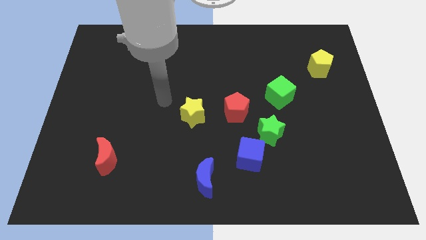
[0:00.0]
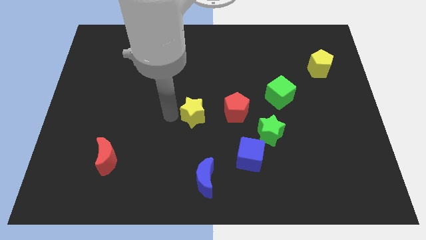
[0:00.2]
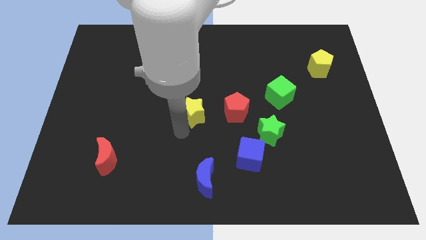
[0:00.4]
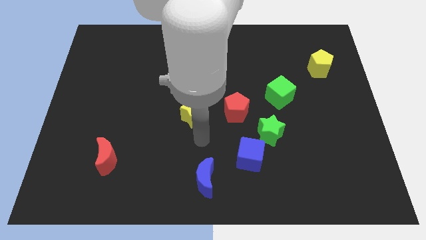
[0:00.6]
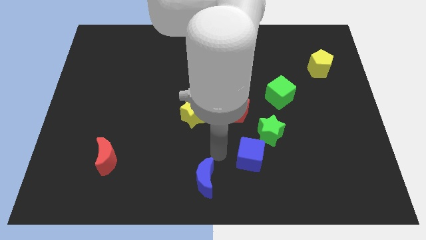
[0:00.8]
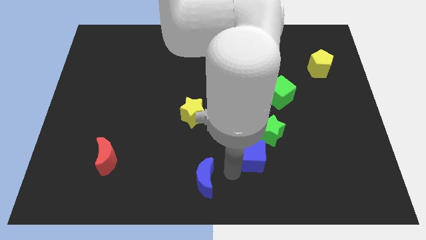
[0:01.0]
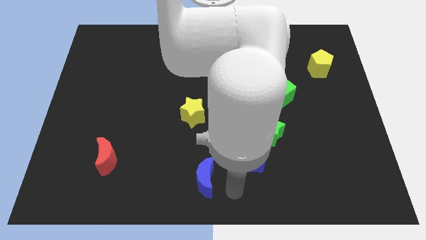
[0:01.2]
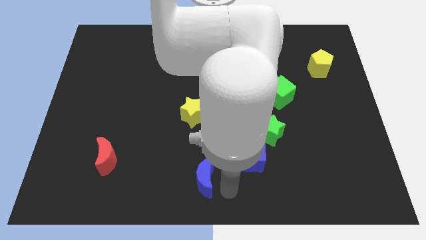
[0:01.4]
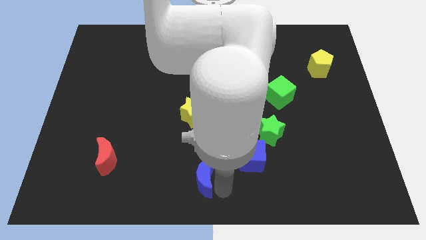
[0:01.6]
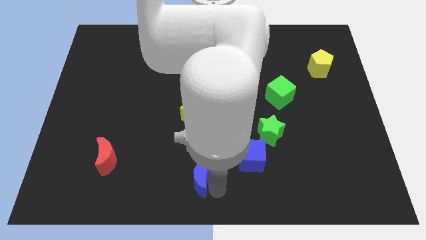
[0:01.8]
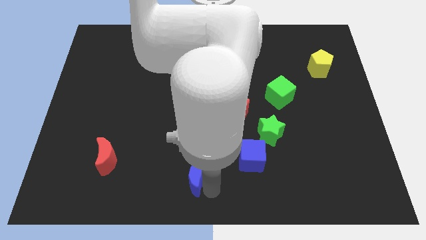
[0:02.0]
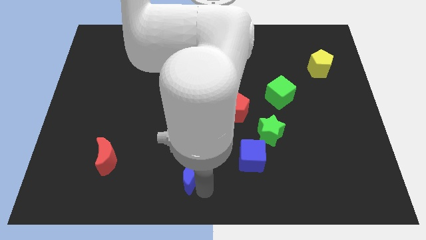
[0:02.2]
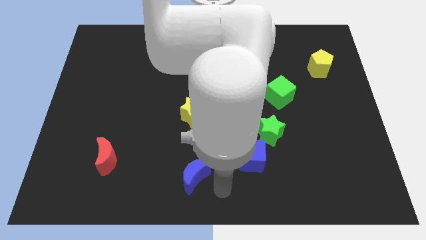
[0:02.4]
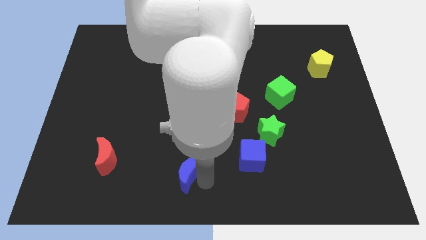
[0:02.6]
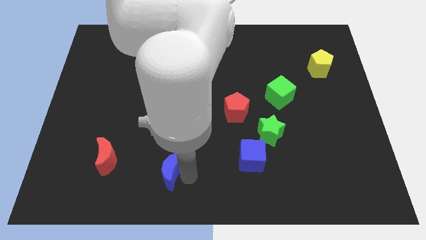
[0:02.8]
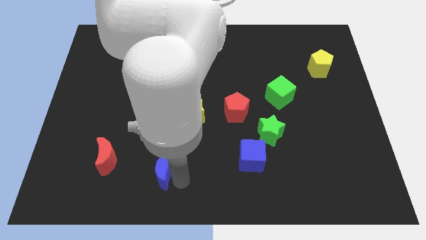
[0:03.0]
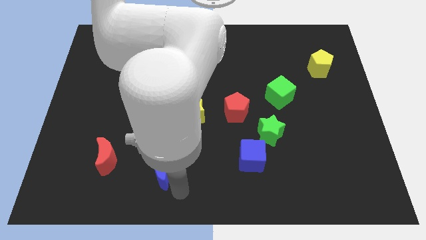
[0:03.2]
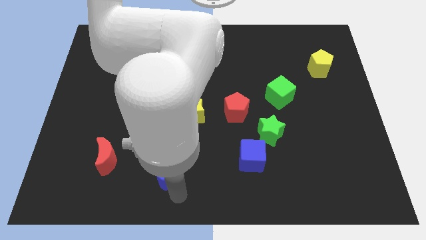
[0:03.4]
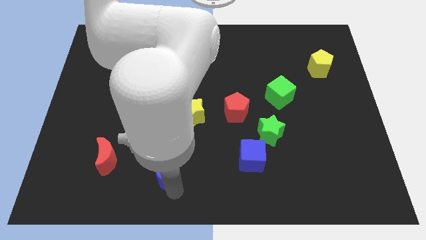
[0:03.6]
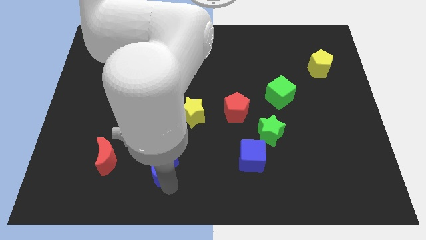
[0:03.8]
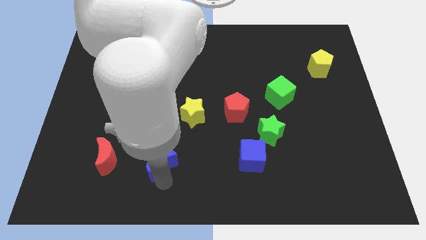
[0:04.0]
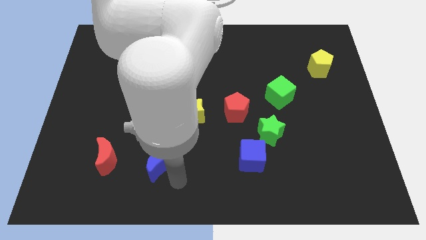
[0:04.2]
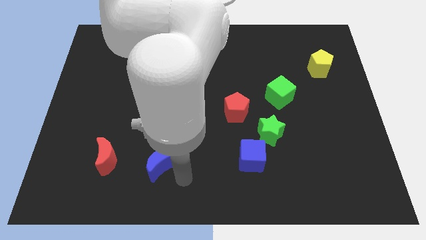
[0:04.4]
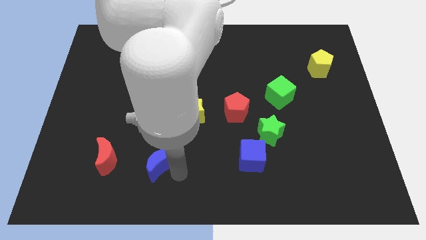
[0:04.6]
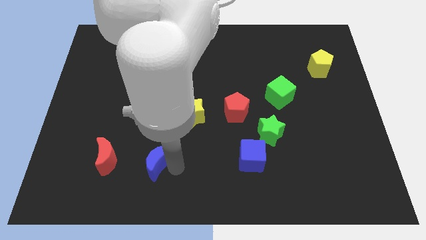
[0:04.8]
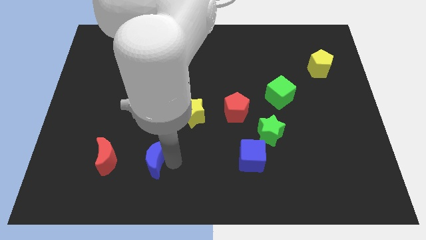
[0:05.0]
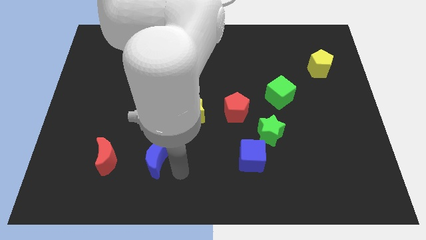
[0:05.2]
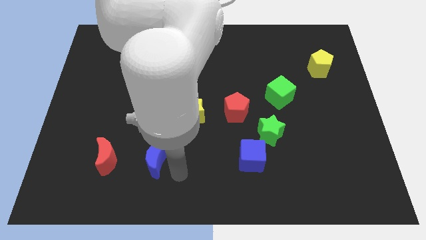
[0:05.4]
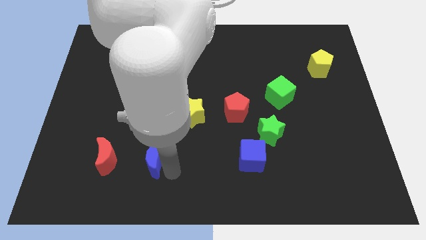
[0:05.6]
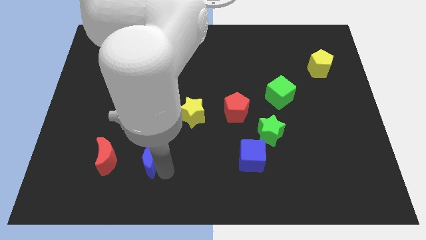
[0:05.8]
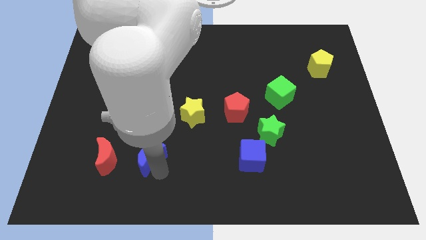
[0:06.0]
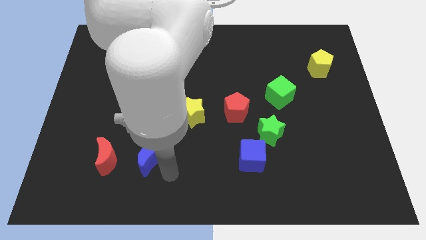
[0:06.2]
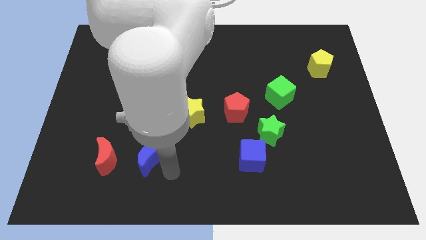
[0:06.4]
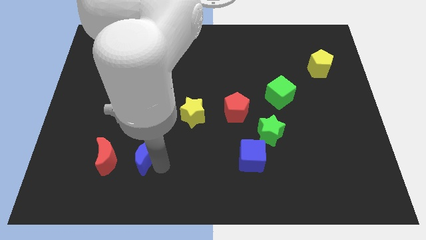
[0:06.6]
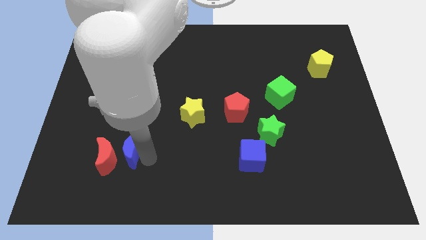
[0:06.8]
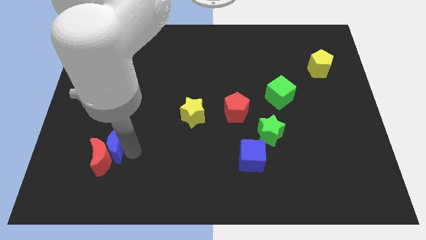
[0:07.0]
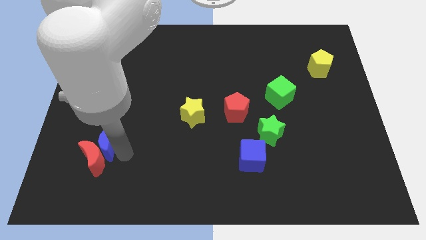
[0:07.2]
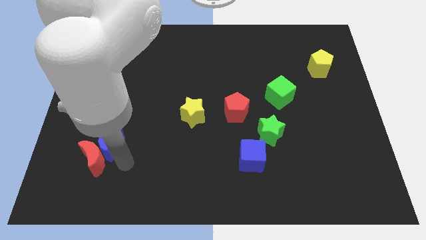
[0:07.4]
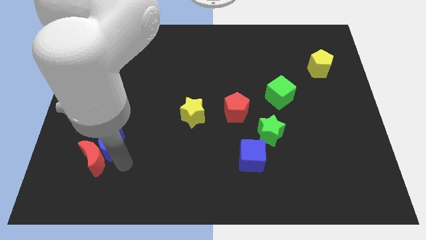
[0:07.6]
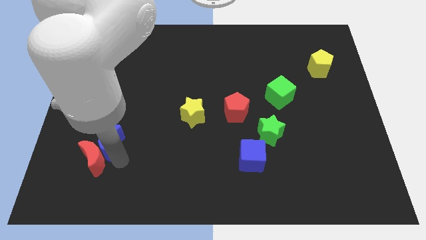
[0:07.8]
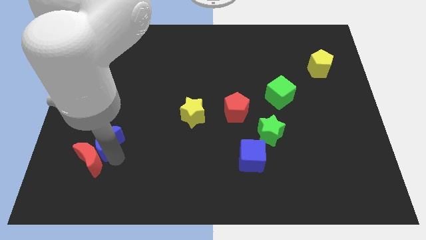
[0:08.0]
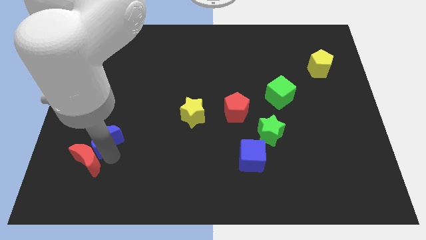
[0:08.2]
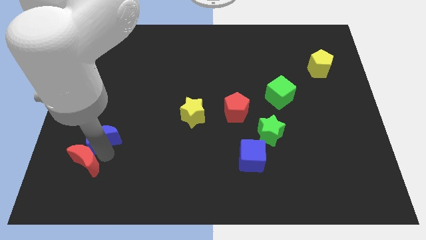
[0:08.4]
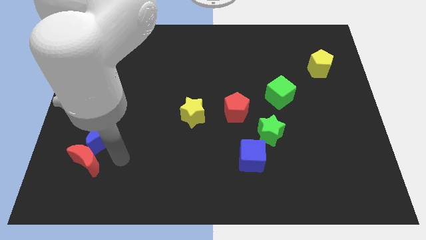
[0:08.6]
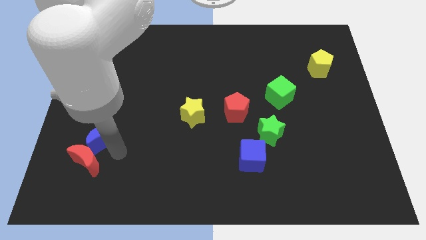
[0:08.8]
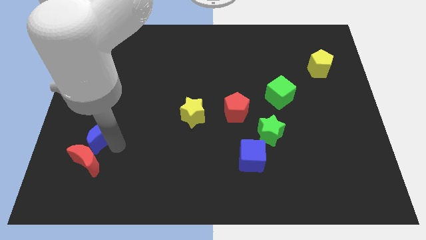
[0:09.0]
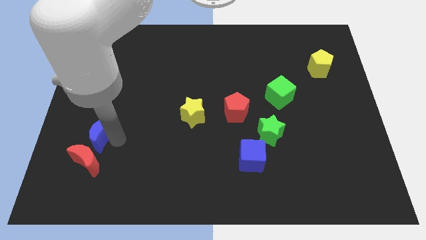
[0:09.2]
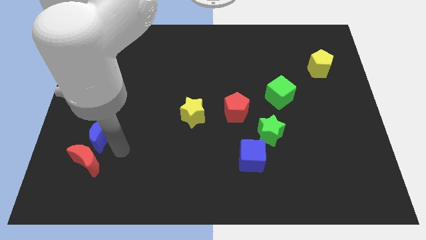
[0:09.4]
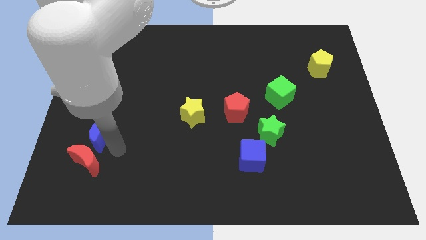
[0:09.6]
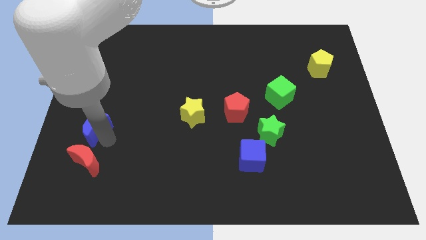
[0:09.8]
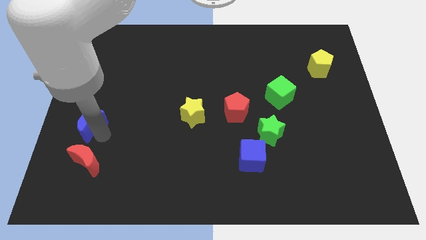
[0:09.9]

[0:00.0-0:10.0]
move the blue moon to the left side of the board

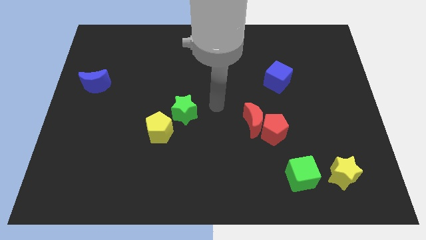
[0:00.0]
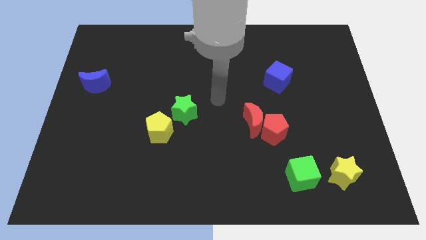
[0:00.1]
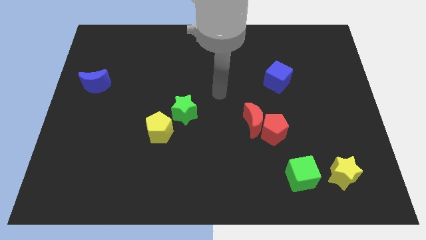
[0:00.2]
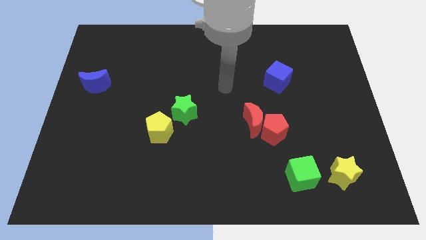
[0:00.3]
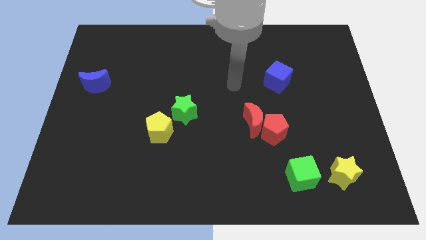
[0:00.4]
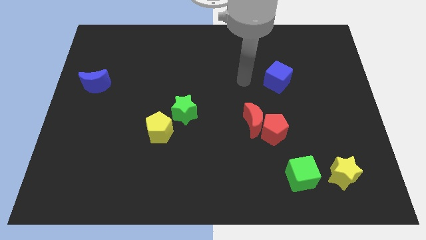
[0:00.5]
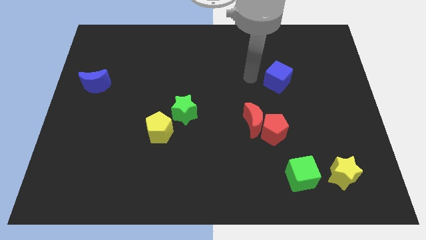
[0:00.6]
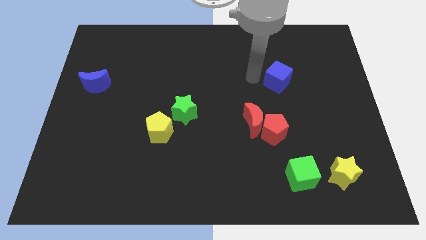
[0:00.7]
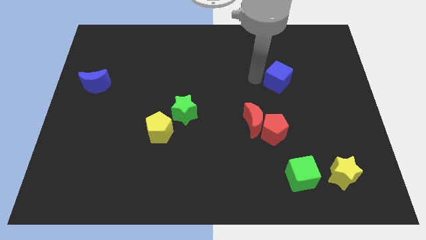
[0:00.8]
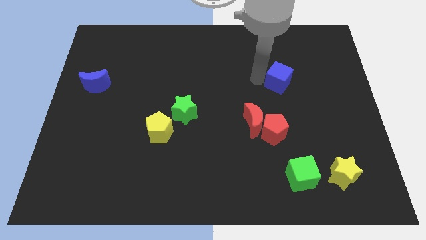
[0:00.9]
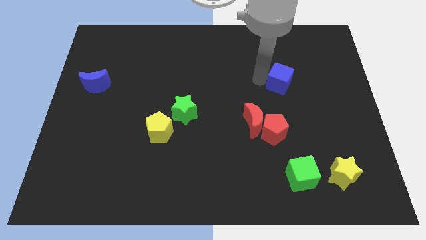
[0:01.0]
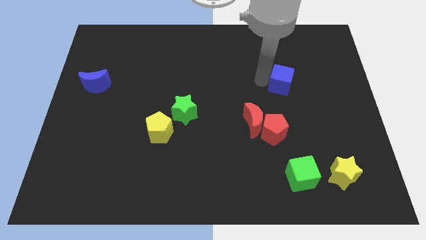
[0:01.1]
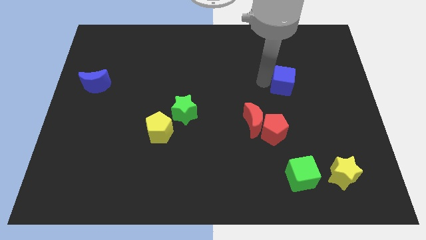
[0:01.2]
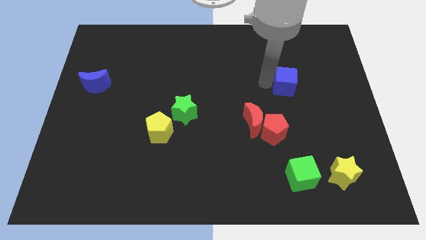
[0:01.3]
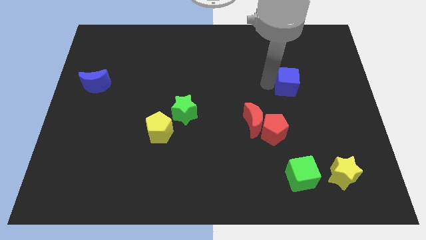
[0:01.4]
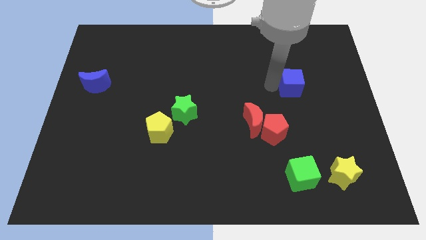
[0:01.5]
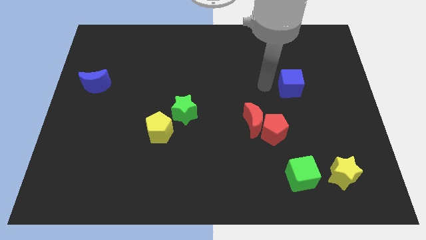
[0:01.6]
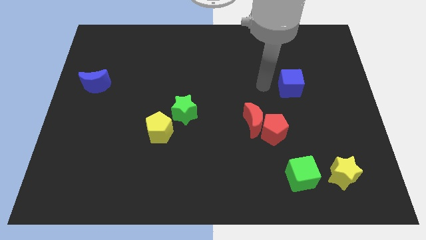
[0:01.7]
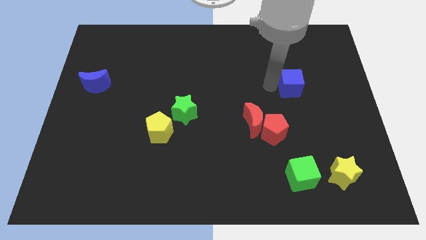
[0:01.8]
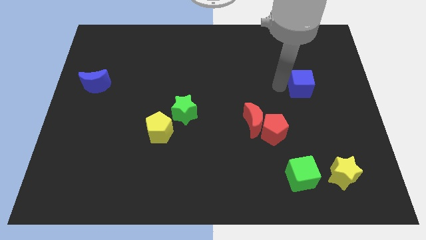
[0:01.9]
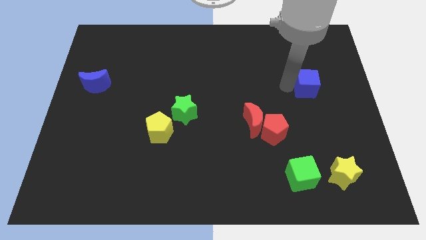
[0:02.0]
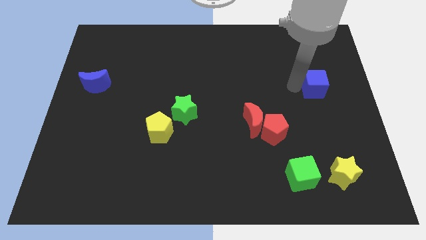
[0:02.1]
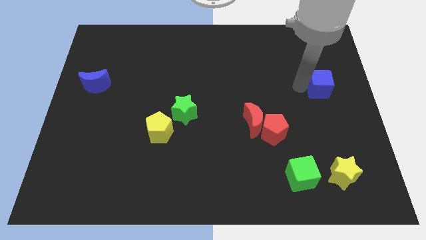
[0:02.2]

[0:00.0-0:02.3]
put the blue cube to the right side
